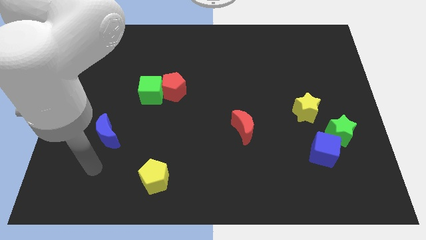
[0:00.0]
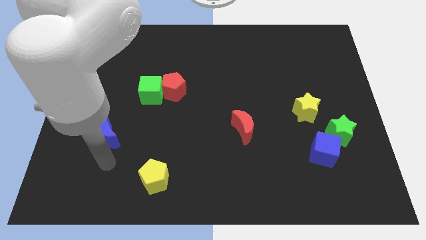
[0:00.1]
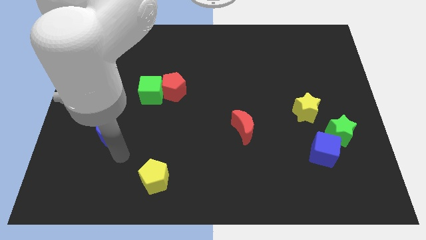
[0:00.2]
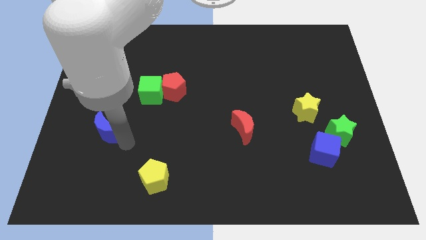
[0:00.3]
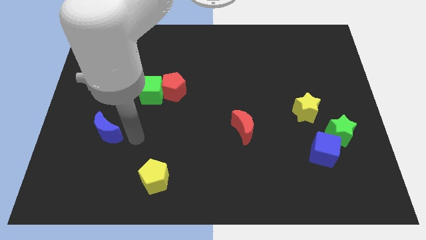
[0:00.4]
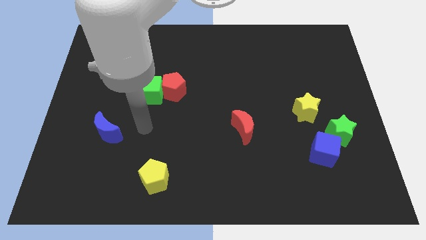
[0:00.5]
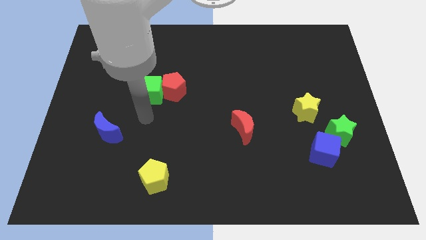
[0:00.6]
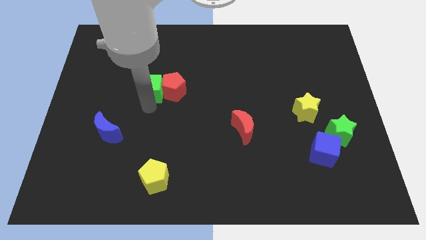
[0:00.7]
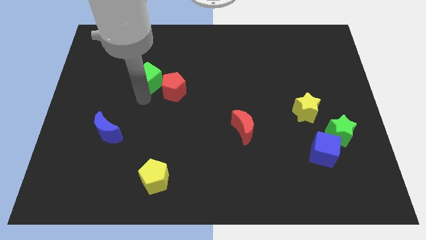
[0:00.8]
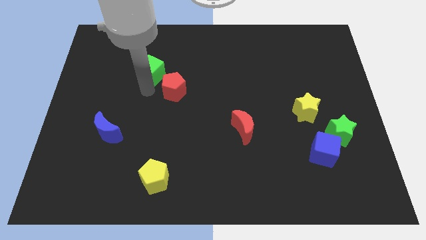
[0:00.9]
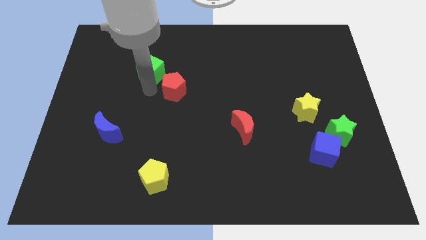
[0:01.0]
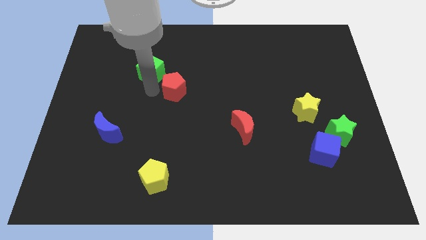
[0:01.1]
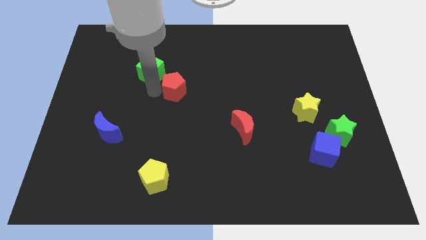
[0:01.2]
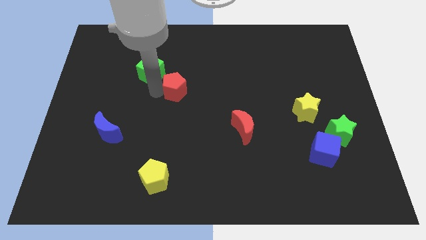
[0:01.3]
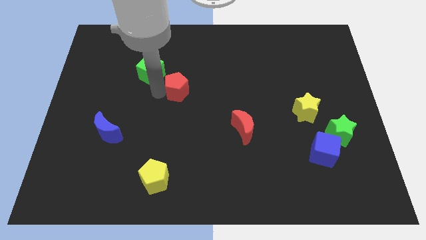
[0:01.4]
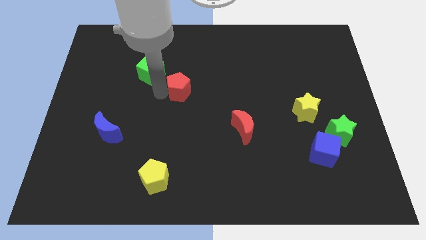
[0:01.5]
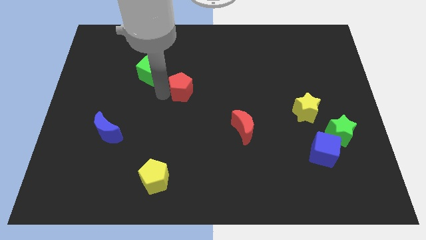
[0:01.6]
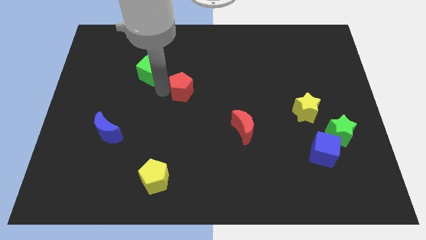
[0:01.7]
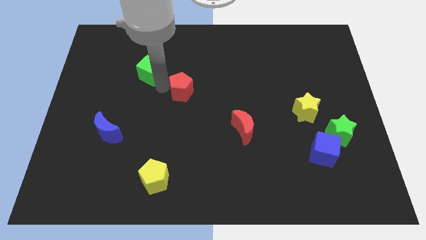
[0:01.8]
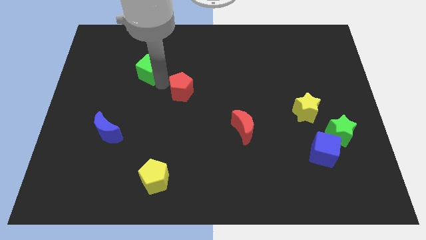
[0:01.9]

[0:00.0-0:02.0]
move the red pentagon away from the green cube

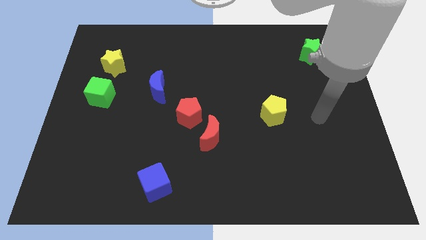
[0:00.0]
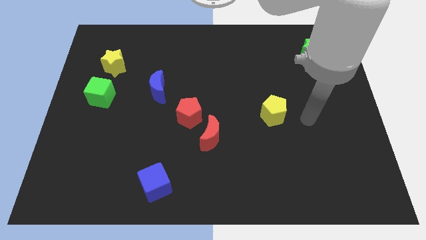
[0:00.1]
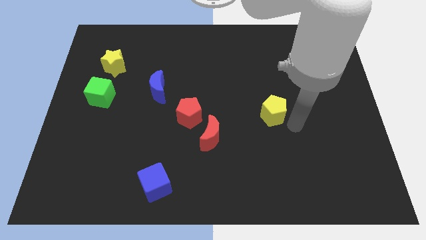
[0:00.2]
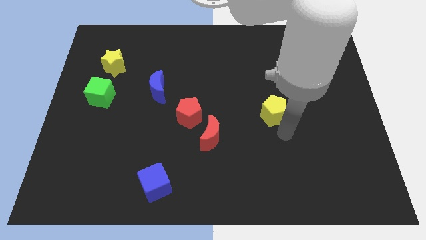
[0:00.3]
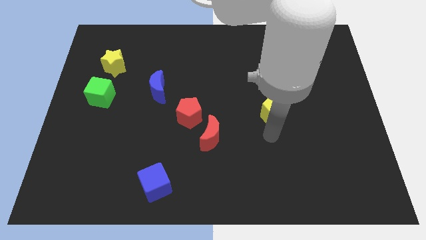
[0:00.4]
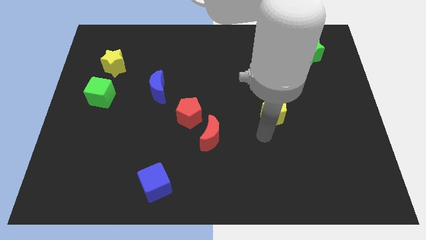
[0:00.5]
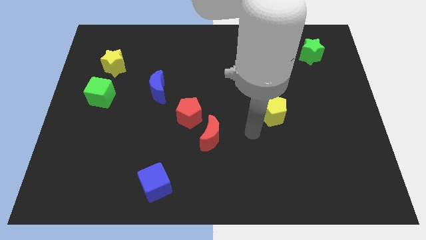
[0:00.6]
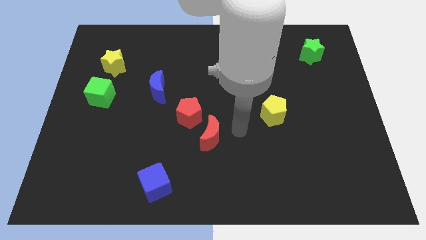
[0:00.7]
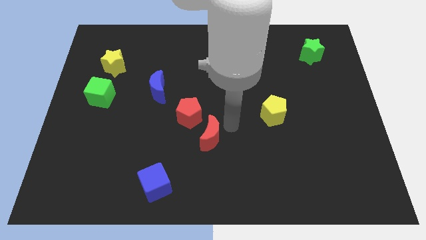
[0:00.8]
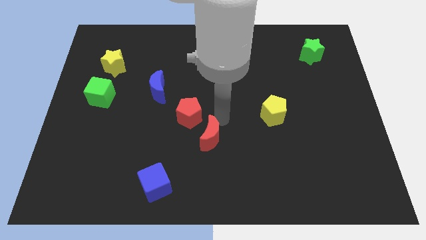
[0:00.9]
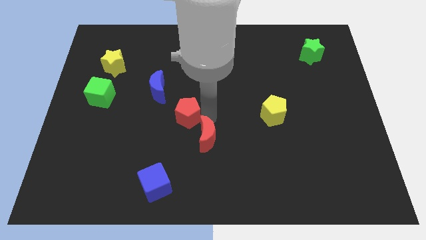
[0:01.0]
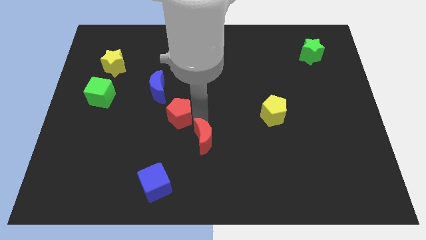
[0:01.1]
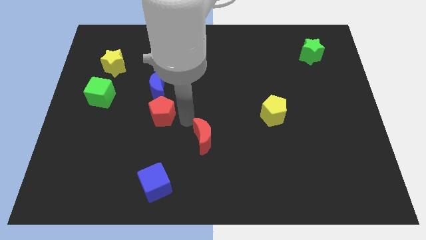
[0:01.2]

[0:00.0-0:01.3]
move the red moon away from the red pentagon

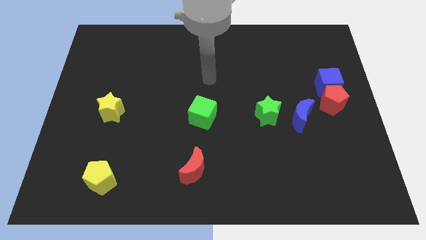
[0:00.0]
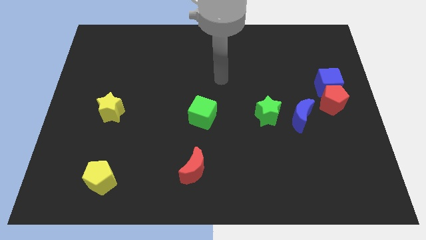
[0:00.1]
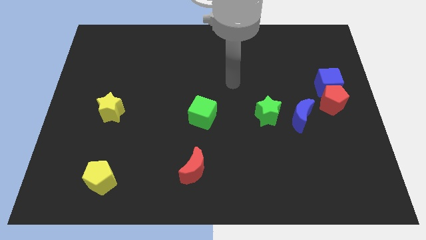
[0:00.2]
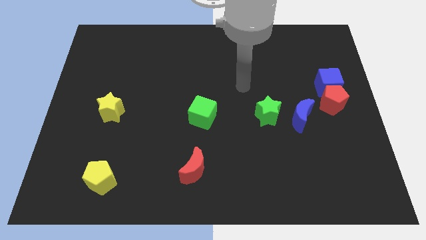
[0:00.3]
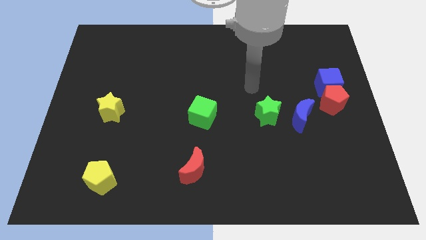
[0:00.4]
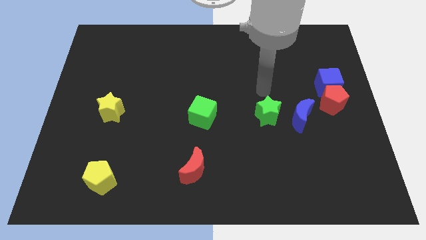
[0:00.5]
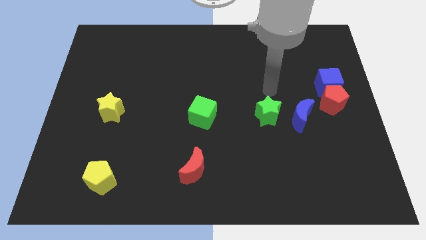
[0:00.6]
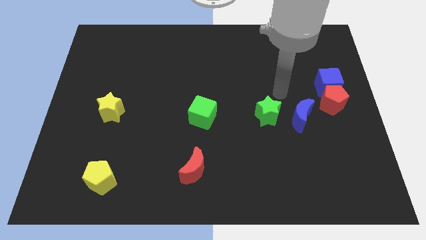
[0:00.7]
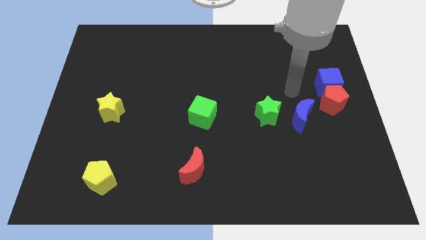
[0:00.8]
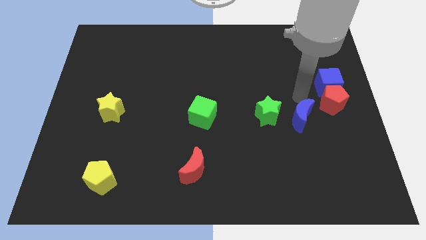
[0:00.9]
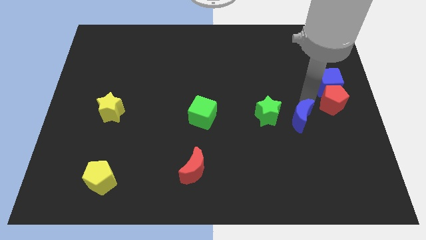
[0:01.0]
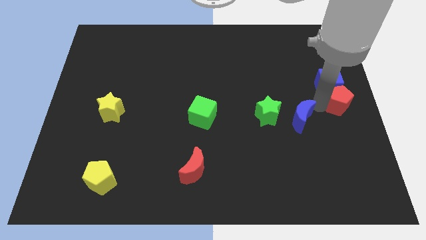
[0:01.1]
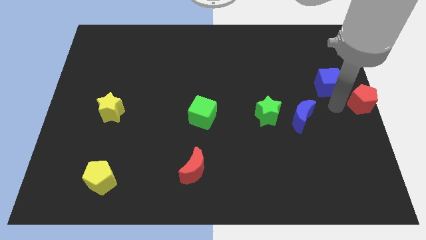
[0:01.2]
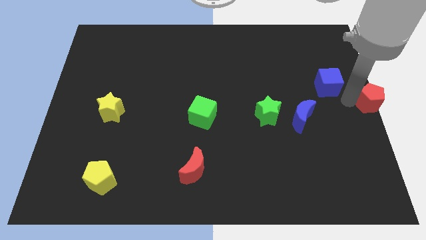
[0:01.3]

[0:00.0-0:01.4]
move the blue cube away from the red pentagon

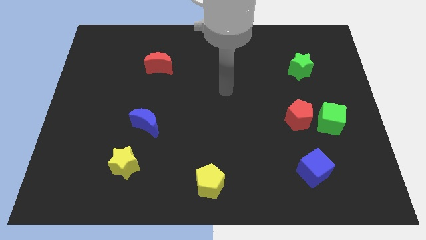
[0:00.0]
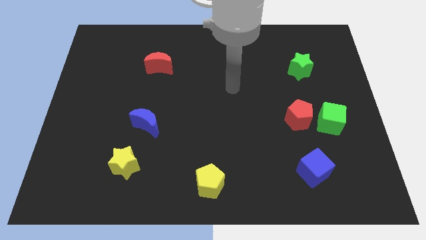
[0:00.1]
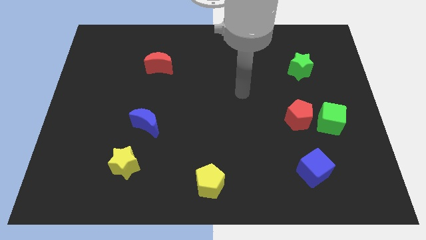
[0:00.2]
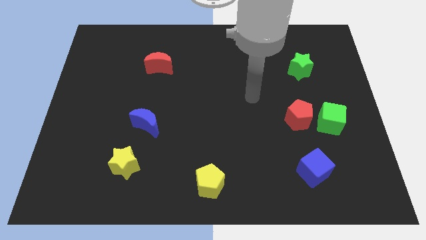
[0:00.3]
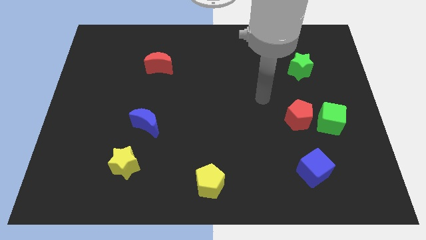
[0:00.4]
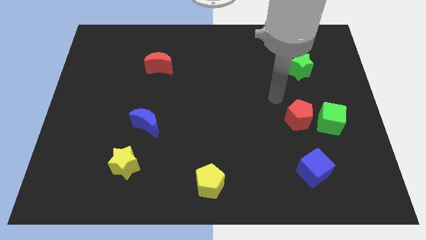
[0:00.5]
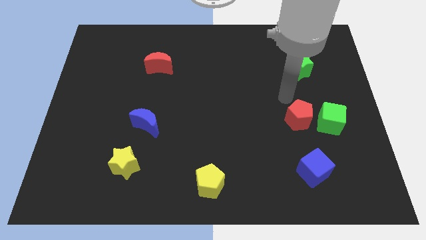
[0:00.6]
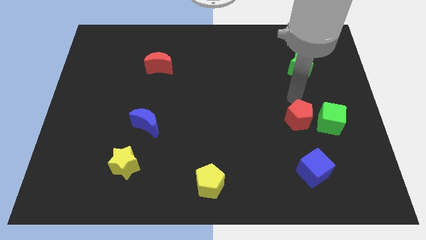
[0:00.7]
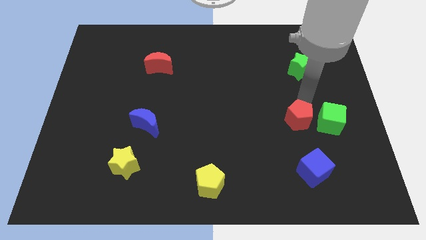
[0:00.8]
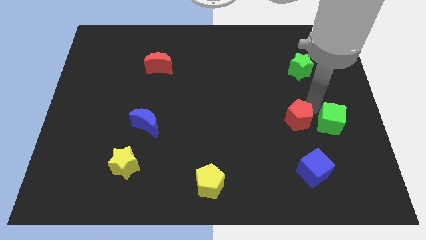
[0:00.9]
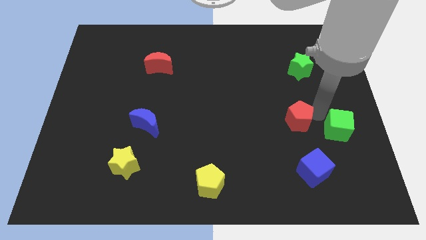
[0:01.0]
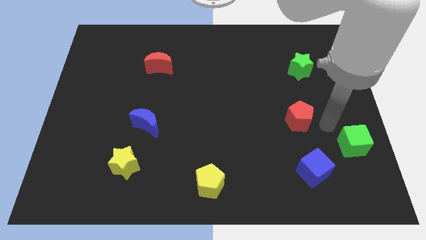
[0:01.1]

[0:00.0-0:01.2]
separate the red pentagon from the green cube

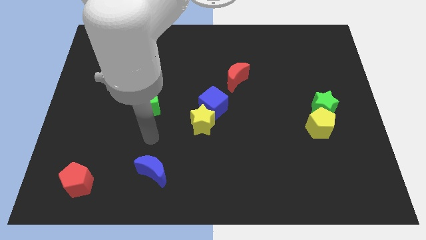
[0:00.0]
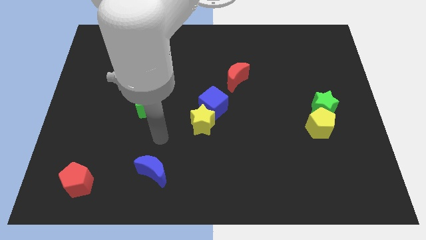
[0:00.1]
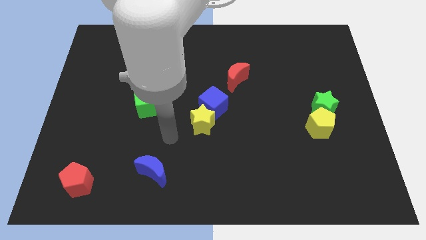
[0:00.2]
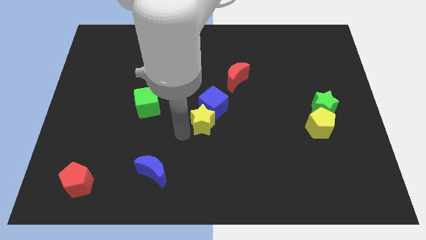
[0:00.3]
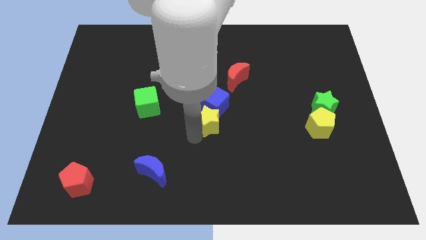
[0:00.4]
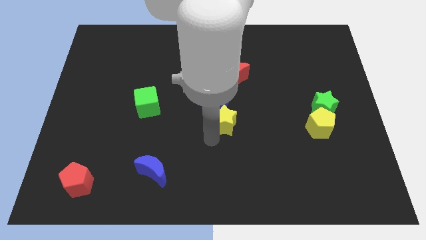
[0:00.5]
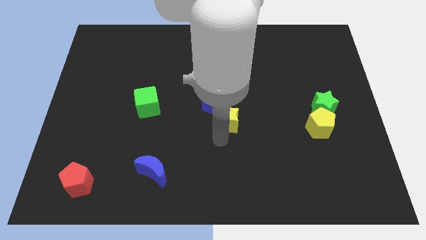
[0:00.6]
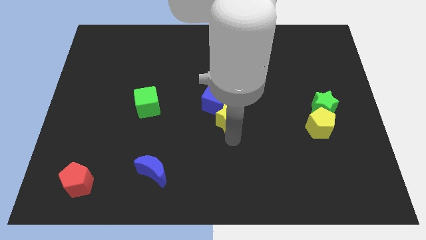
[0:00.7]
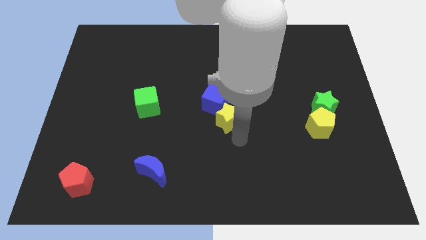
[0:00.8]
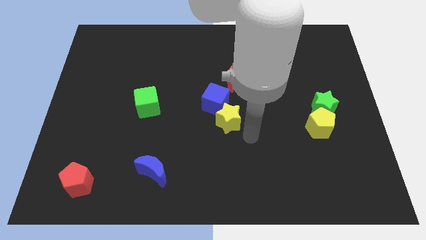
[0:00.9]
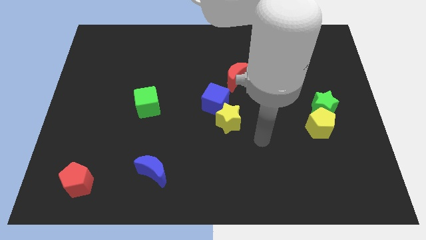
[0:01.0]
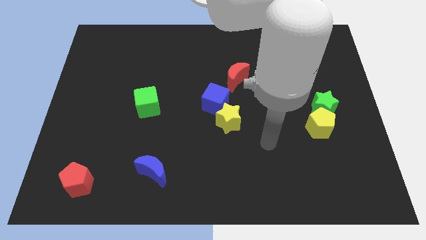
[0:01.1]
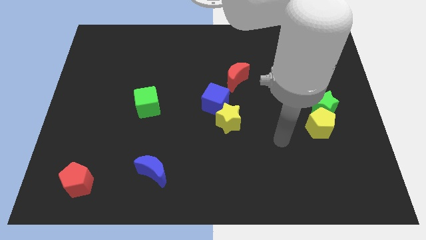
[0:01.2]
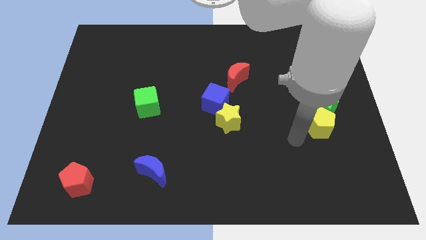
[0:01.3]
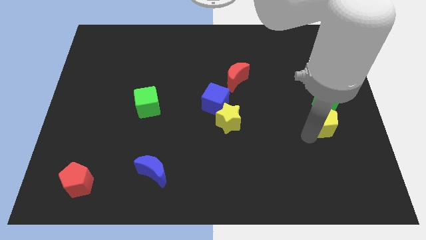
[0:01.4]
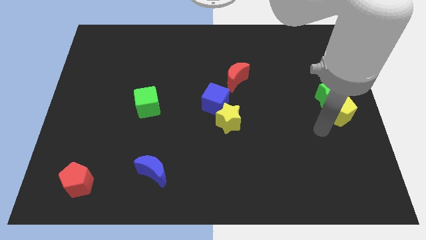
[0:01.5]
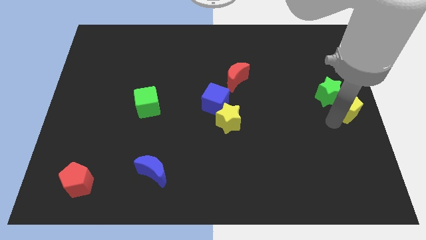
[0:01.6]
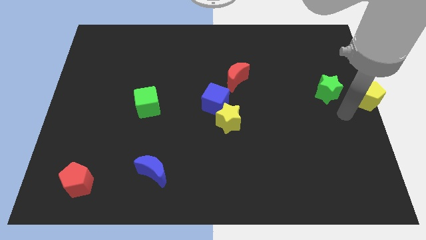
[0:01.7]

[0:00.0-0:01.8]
pull the green star apart from the yellow pentagon

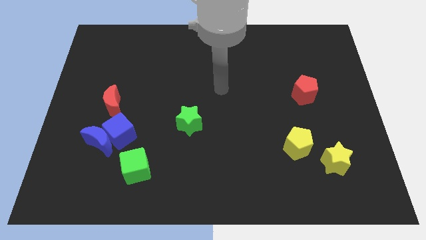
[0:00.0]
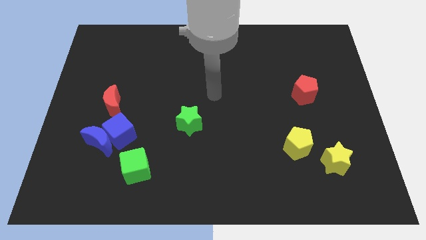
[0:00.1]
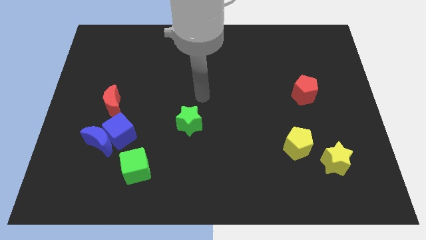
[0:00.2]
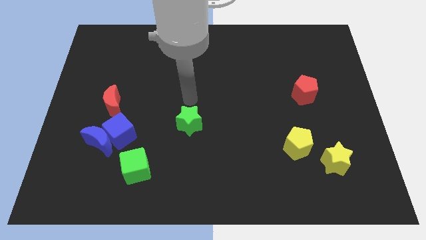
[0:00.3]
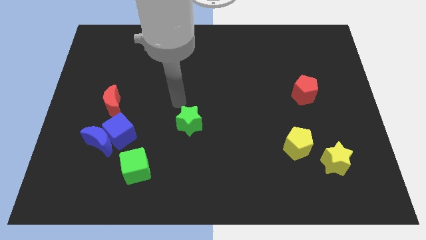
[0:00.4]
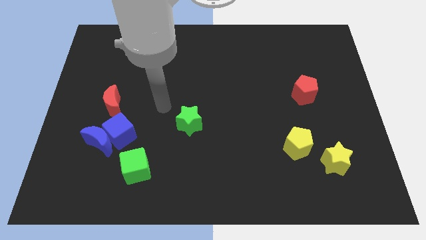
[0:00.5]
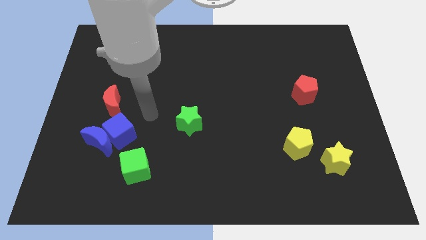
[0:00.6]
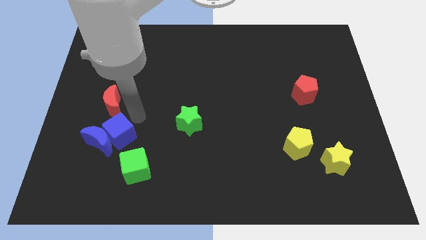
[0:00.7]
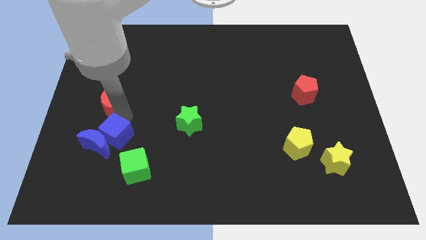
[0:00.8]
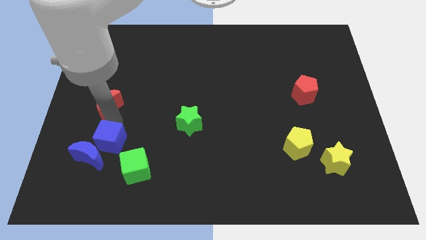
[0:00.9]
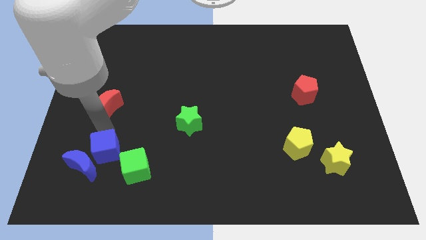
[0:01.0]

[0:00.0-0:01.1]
separate the blue moon from the blue cube and red moon

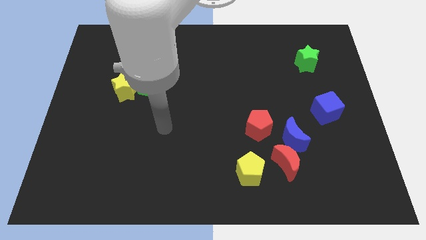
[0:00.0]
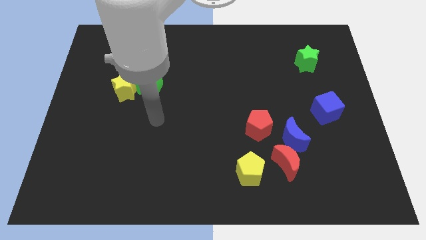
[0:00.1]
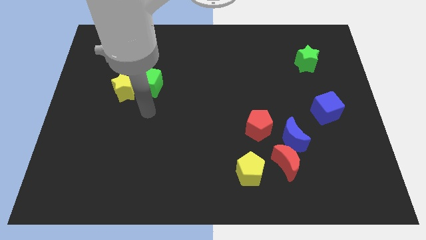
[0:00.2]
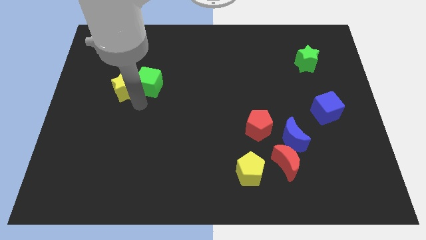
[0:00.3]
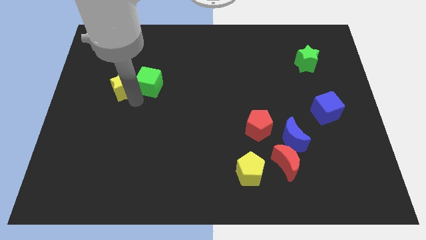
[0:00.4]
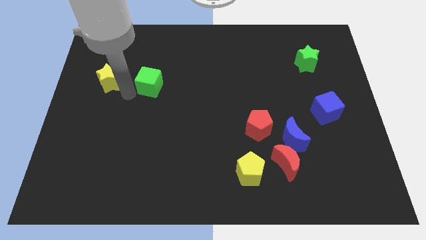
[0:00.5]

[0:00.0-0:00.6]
pull the green cube apart from the yellow star
